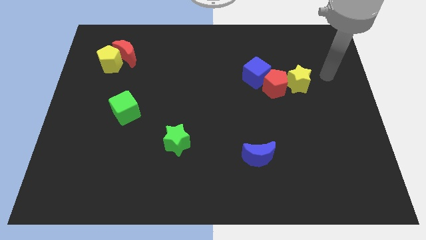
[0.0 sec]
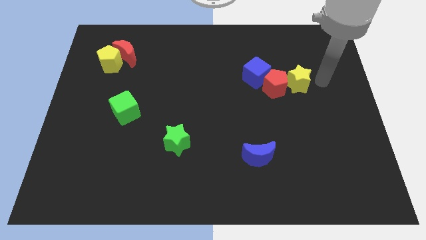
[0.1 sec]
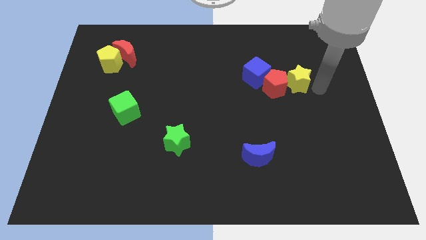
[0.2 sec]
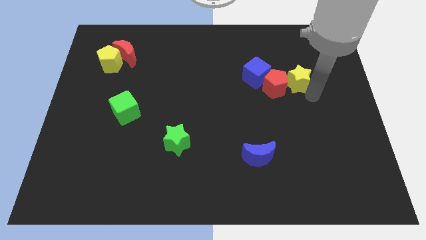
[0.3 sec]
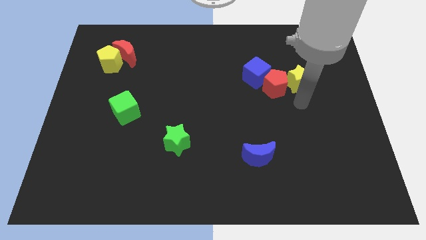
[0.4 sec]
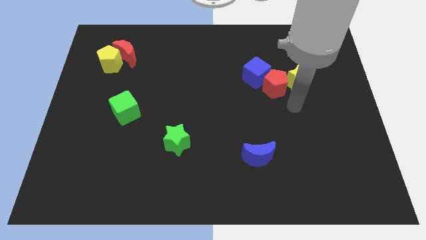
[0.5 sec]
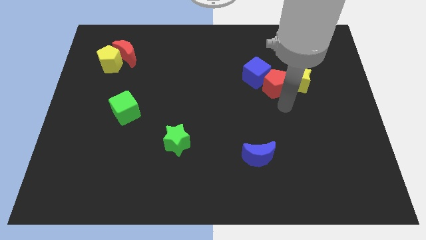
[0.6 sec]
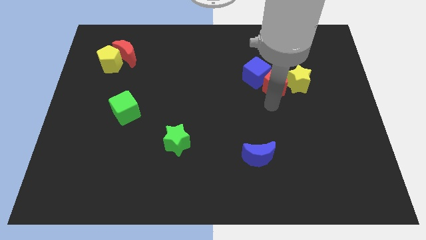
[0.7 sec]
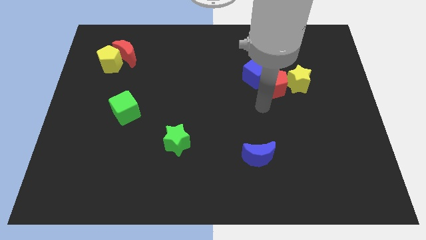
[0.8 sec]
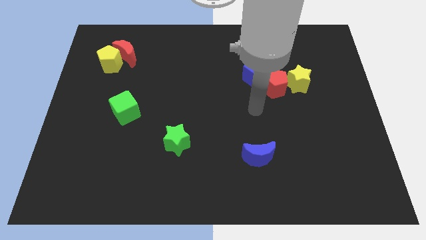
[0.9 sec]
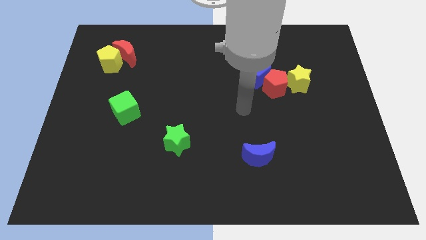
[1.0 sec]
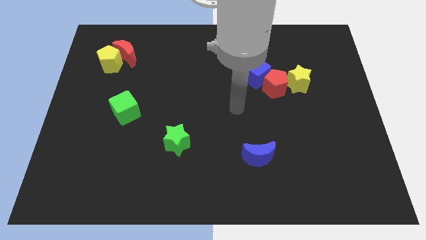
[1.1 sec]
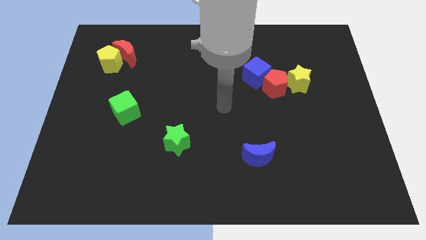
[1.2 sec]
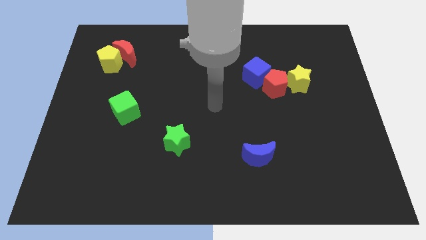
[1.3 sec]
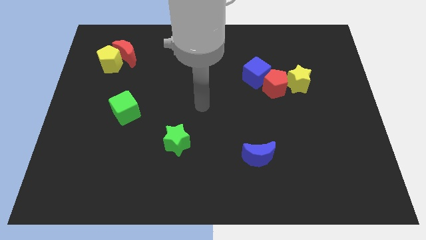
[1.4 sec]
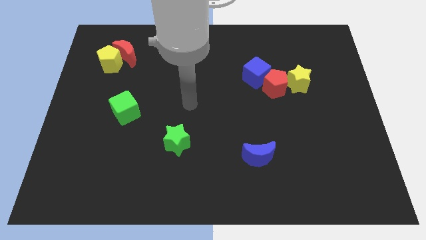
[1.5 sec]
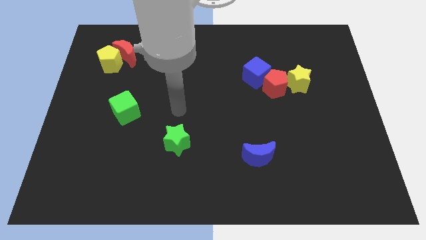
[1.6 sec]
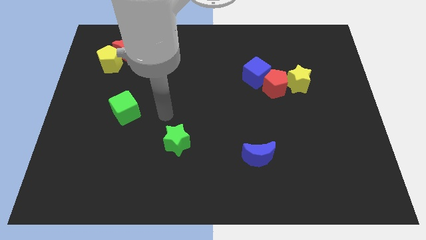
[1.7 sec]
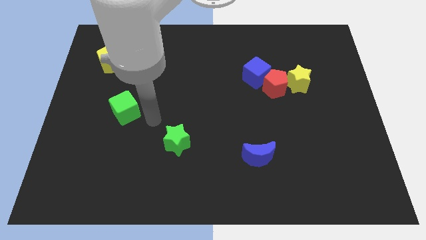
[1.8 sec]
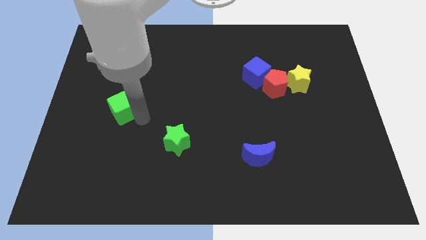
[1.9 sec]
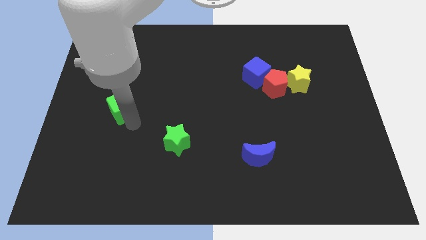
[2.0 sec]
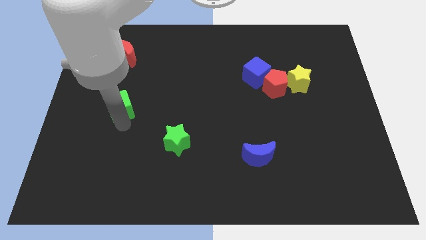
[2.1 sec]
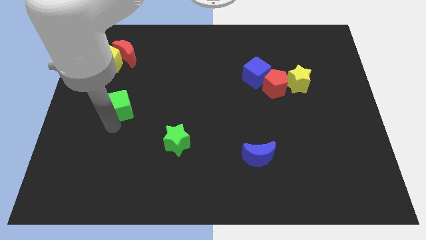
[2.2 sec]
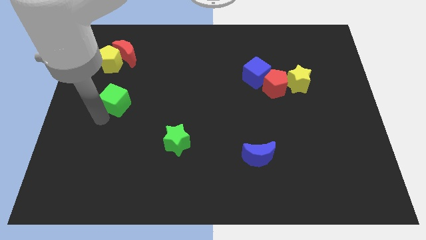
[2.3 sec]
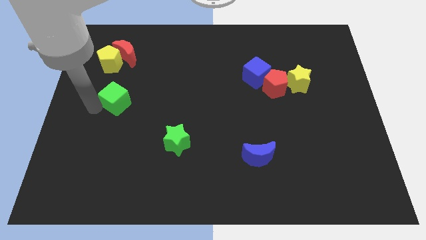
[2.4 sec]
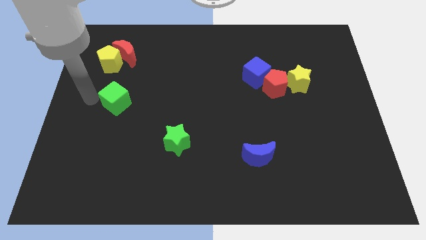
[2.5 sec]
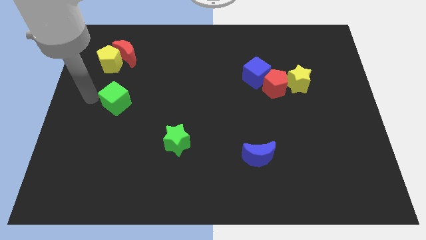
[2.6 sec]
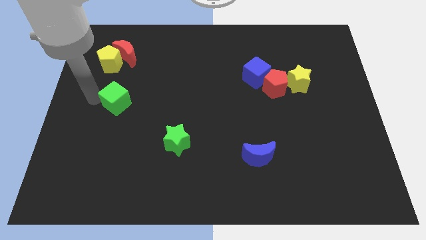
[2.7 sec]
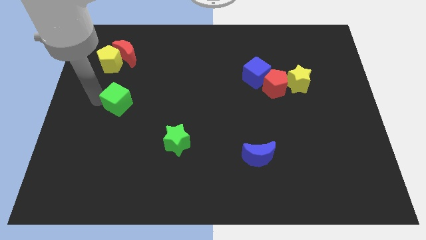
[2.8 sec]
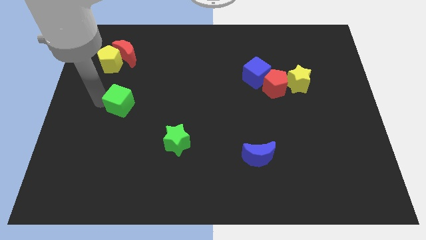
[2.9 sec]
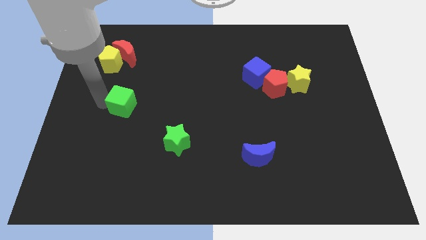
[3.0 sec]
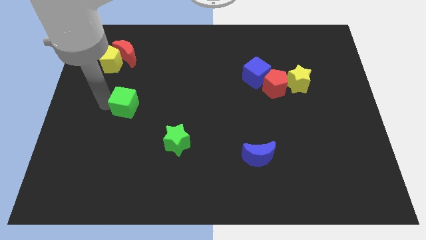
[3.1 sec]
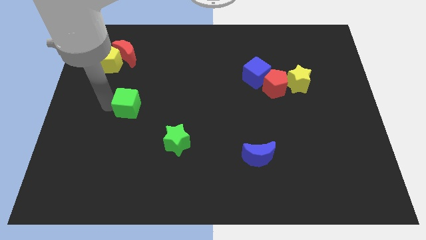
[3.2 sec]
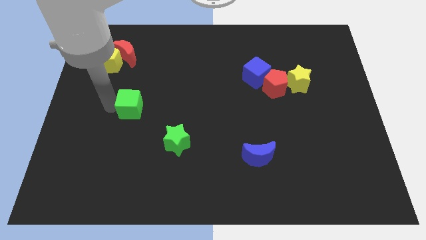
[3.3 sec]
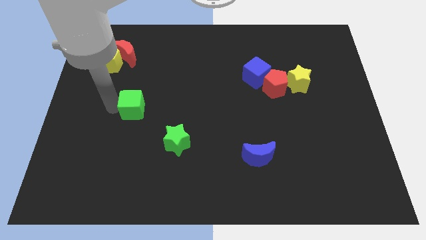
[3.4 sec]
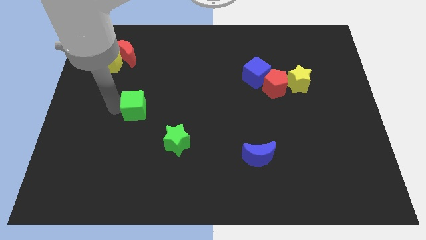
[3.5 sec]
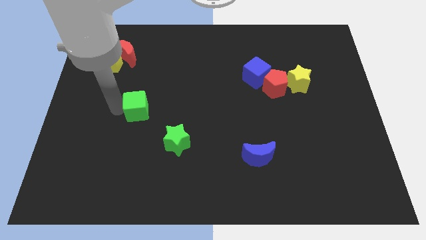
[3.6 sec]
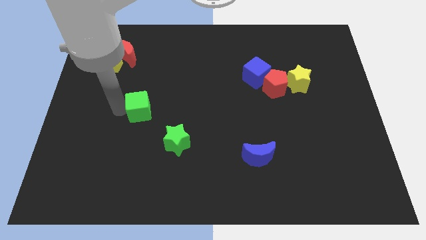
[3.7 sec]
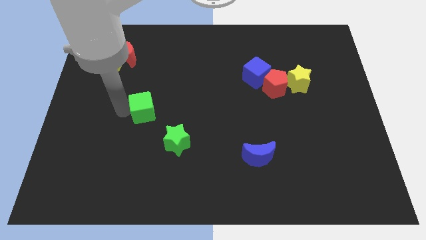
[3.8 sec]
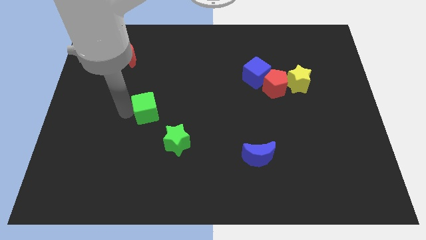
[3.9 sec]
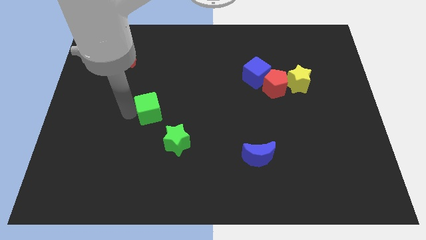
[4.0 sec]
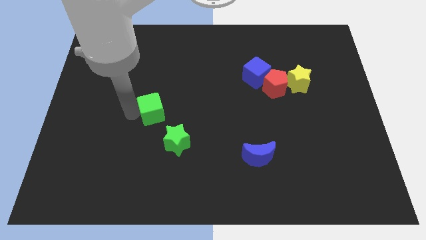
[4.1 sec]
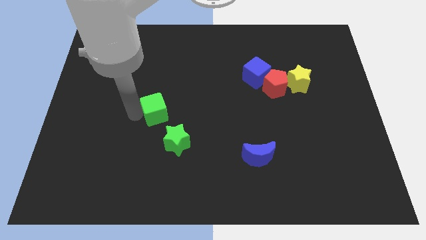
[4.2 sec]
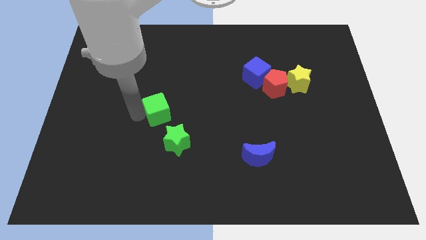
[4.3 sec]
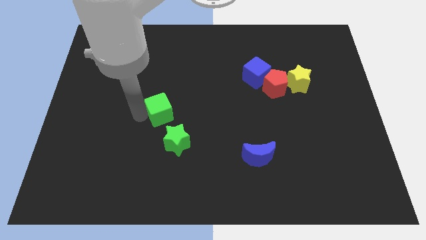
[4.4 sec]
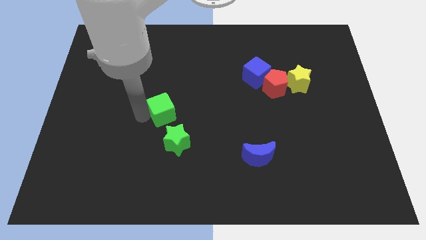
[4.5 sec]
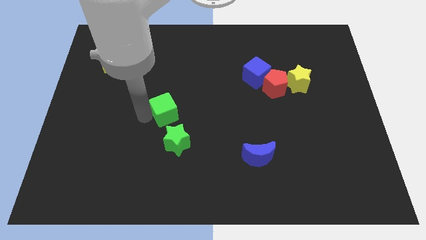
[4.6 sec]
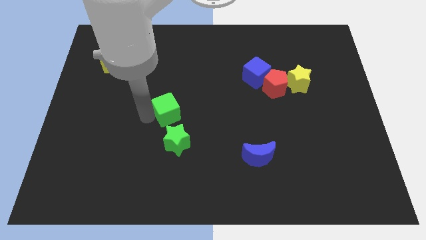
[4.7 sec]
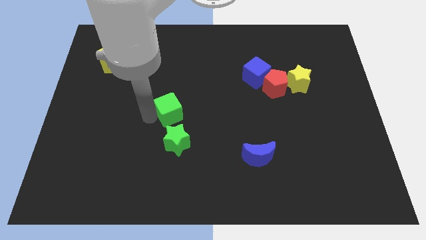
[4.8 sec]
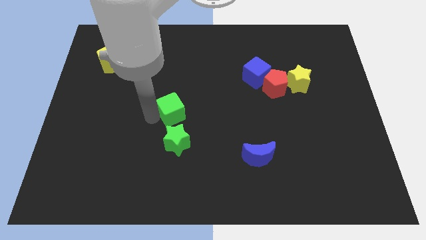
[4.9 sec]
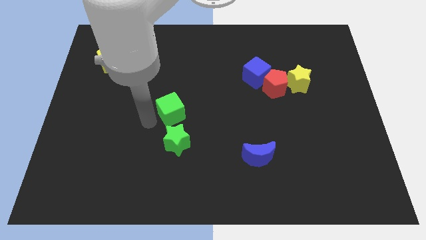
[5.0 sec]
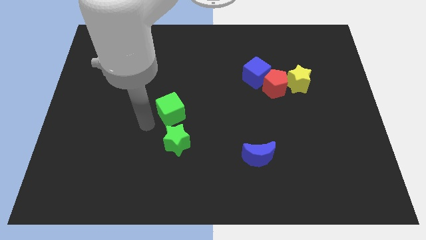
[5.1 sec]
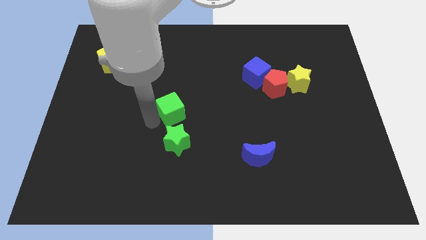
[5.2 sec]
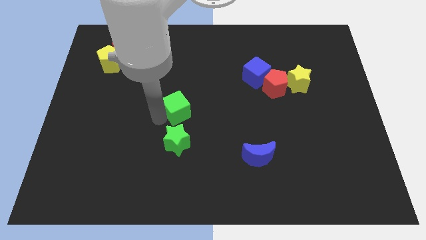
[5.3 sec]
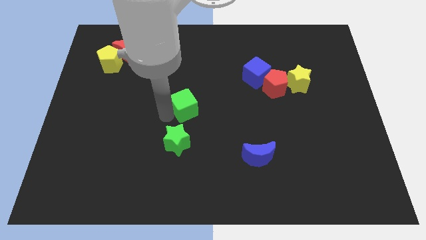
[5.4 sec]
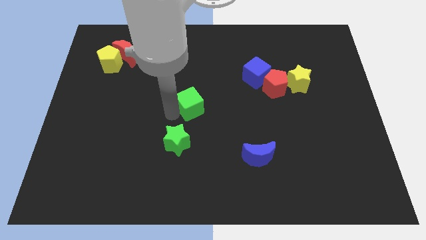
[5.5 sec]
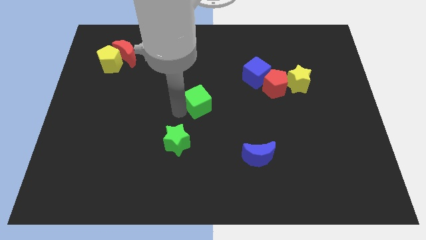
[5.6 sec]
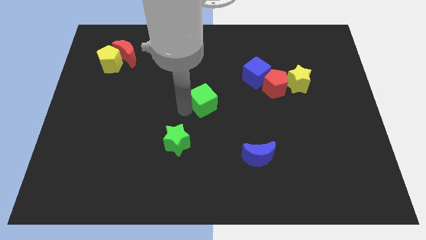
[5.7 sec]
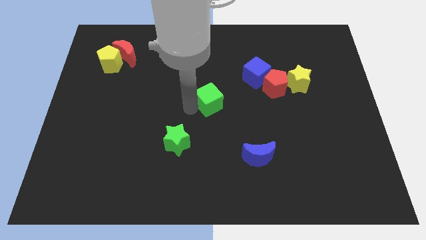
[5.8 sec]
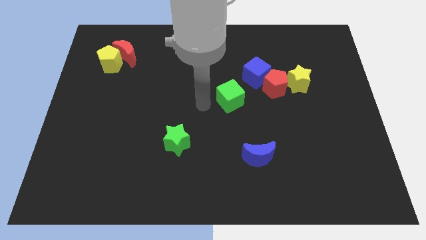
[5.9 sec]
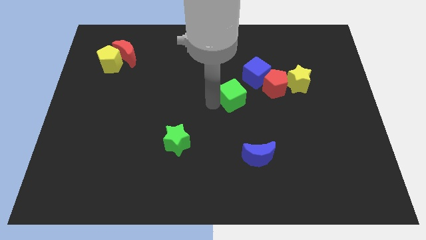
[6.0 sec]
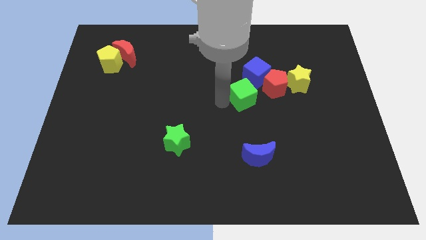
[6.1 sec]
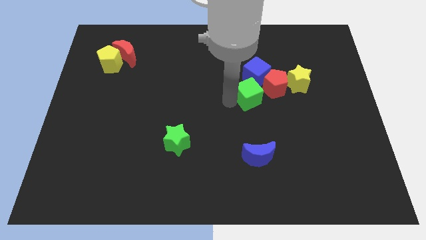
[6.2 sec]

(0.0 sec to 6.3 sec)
put the green cube left of the yellow star

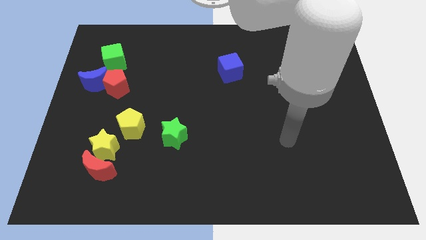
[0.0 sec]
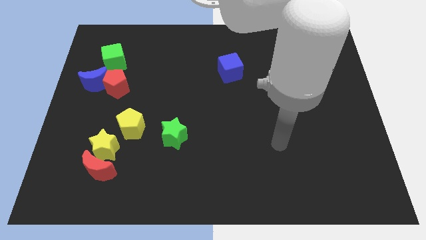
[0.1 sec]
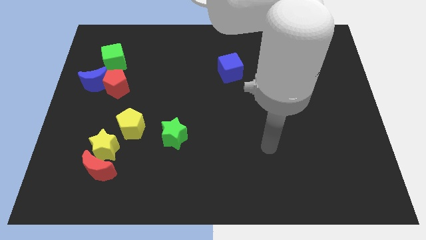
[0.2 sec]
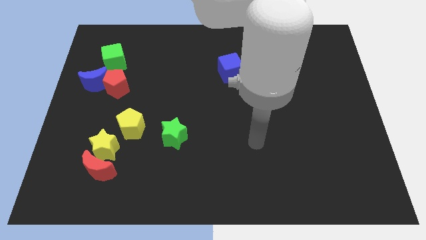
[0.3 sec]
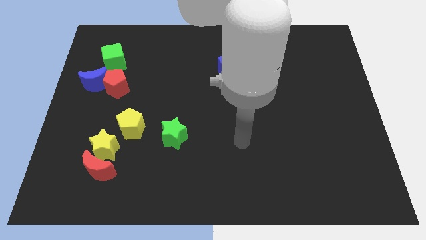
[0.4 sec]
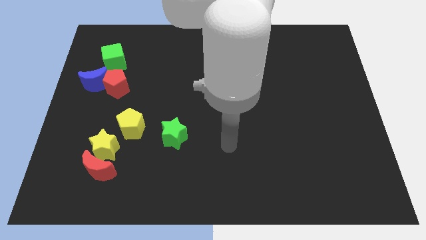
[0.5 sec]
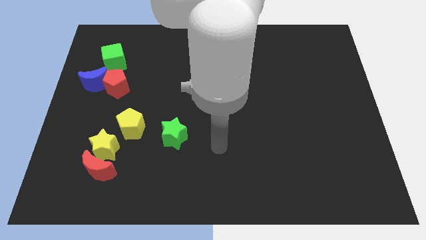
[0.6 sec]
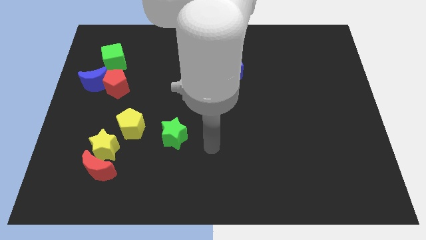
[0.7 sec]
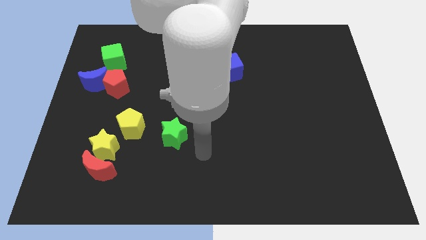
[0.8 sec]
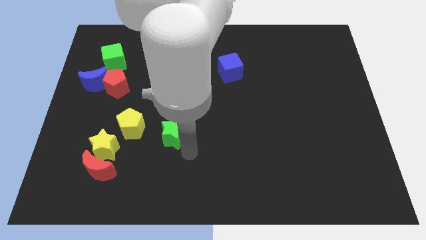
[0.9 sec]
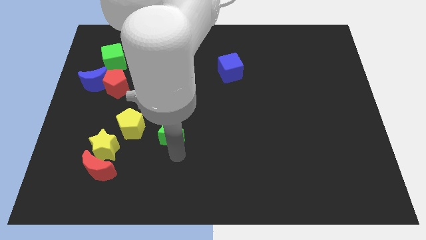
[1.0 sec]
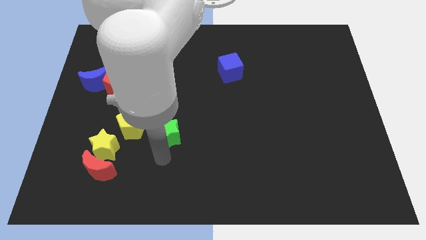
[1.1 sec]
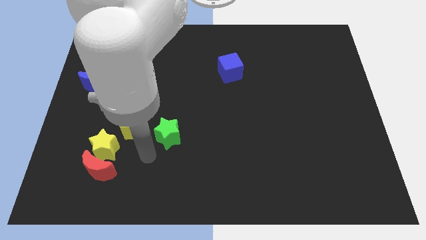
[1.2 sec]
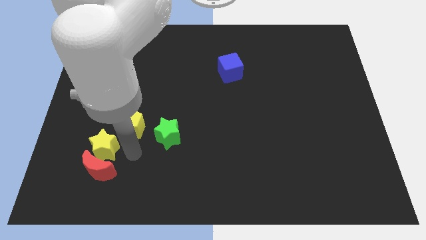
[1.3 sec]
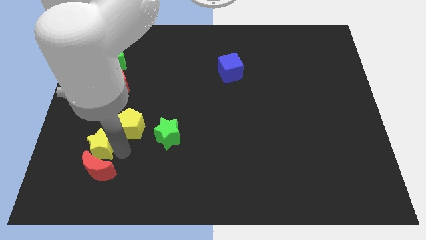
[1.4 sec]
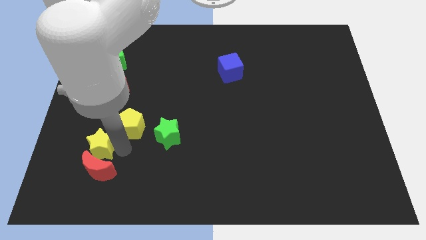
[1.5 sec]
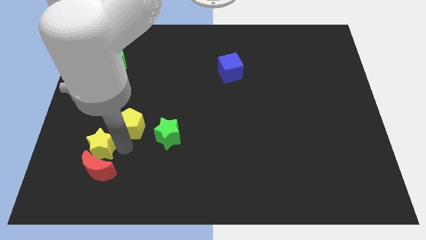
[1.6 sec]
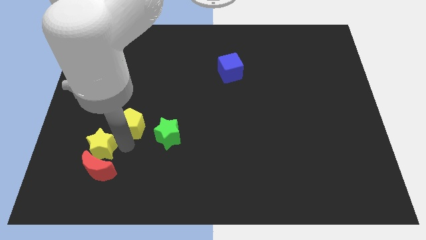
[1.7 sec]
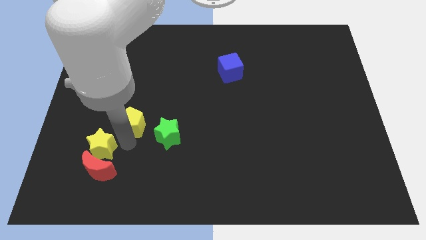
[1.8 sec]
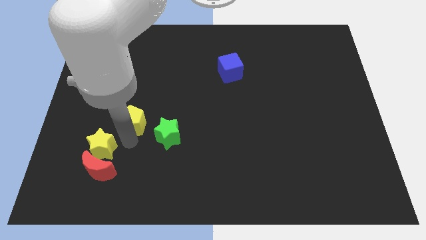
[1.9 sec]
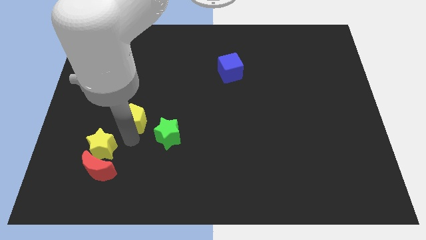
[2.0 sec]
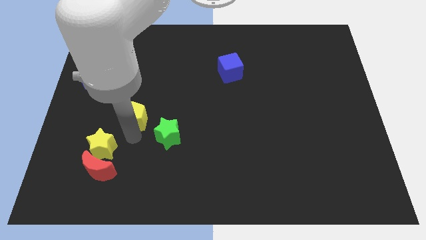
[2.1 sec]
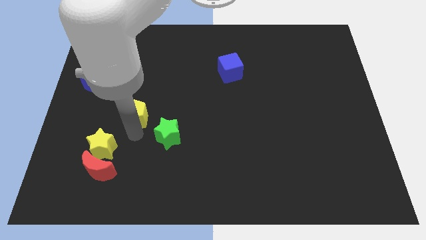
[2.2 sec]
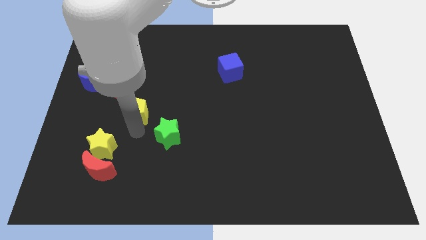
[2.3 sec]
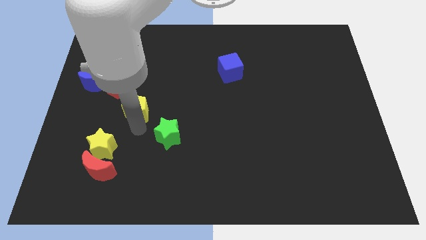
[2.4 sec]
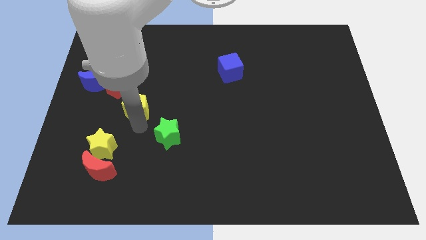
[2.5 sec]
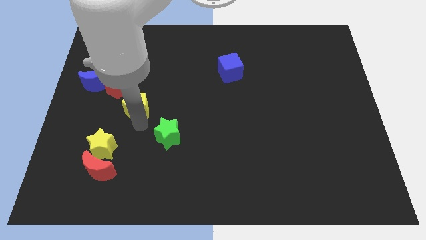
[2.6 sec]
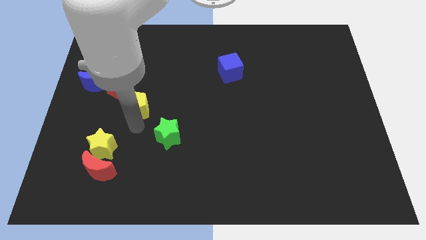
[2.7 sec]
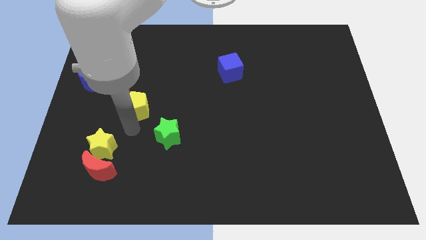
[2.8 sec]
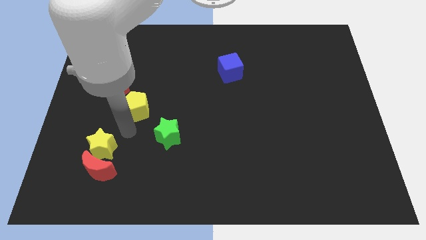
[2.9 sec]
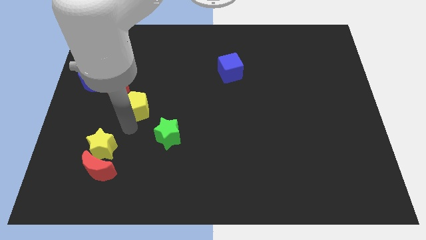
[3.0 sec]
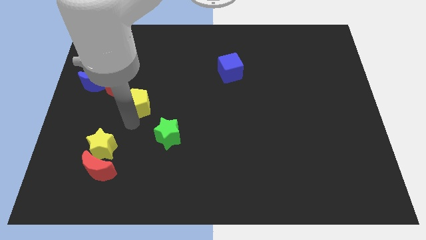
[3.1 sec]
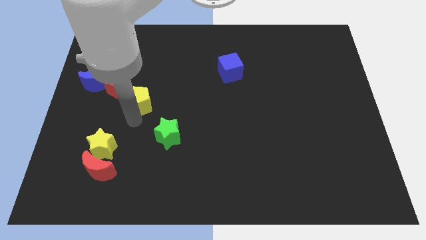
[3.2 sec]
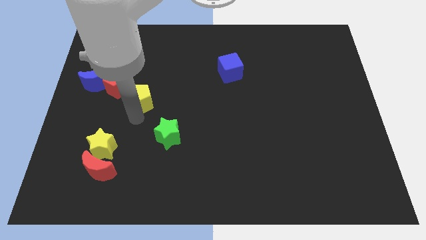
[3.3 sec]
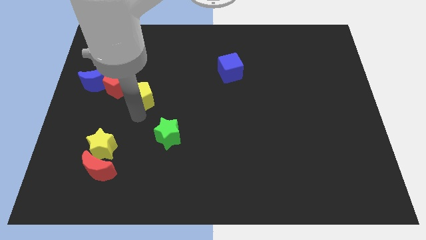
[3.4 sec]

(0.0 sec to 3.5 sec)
move the yellow pentagon to the right side of the blue moon
